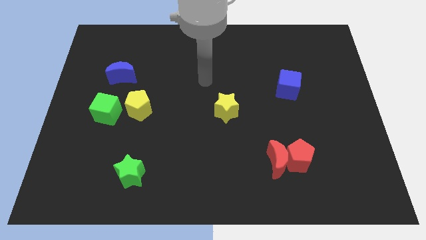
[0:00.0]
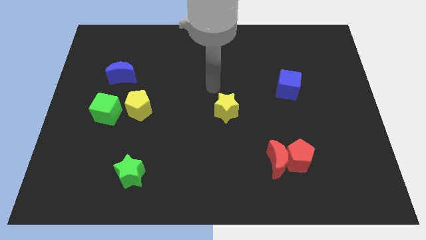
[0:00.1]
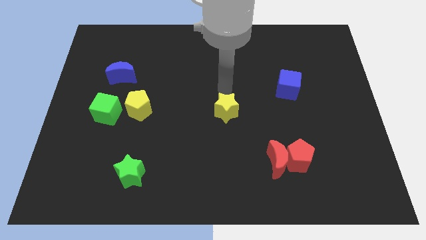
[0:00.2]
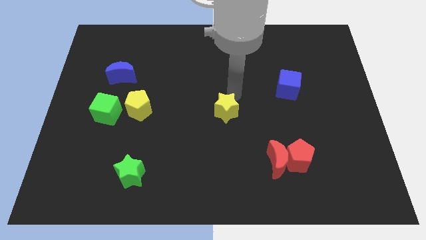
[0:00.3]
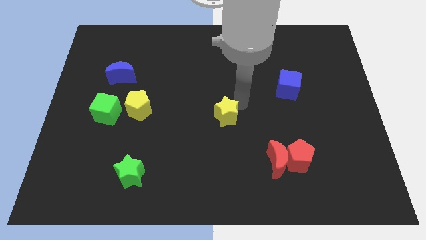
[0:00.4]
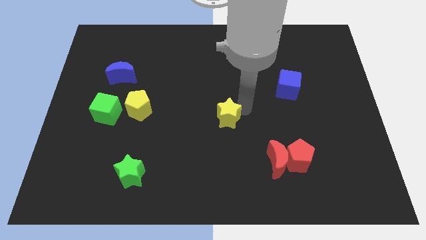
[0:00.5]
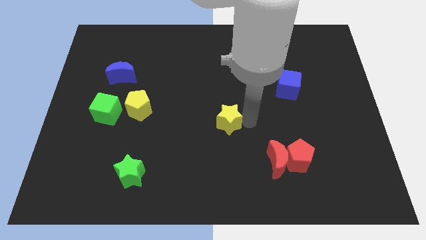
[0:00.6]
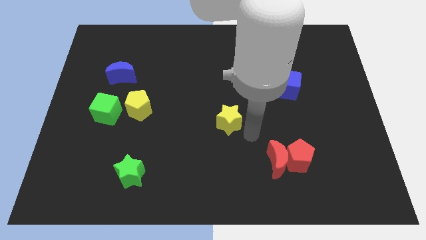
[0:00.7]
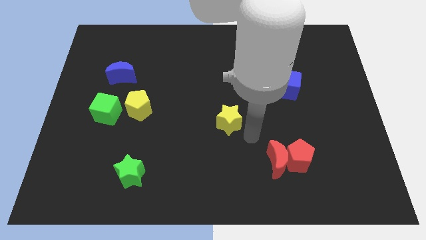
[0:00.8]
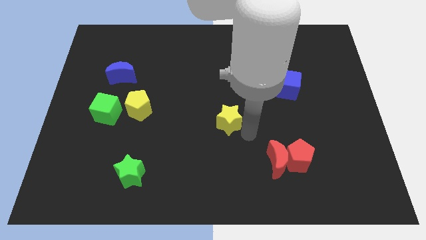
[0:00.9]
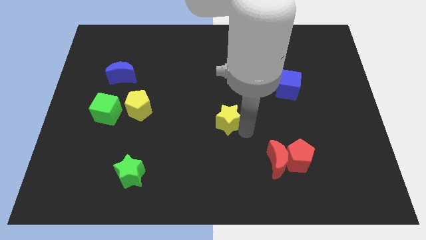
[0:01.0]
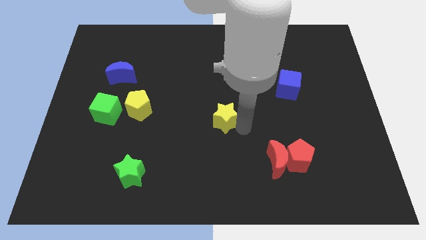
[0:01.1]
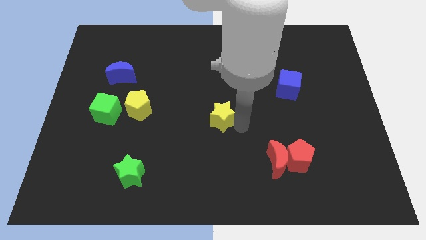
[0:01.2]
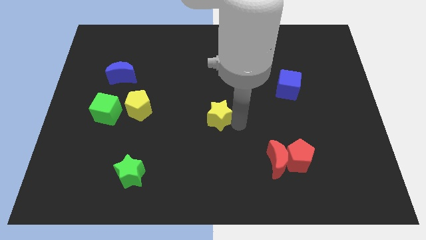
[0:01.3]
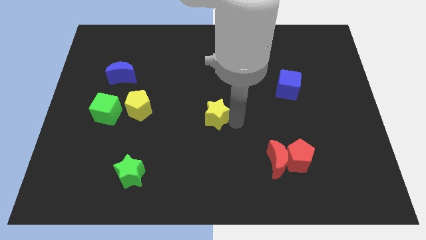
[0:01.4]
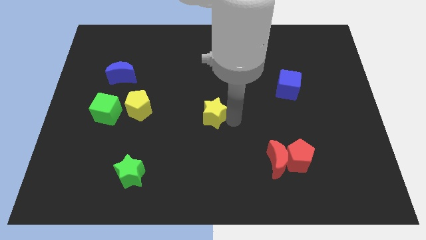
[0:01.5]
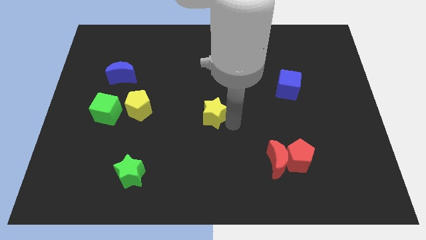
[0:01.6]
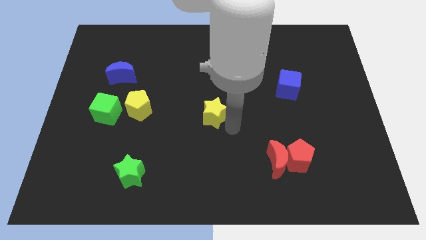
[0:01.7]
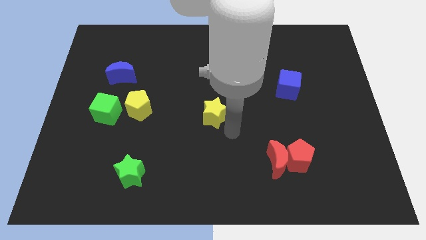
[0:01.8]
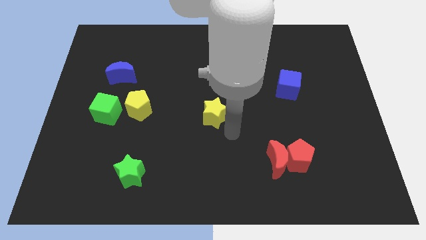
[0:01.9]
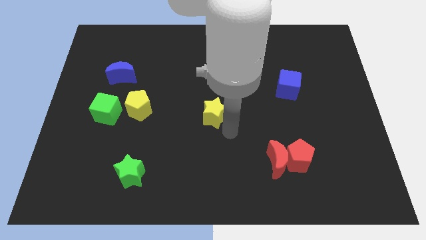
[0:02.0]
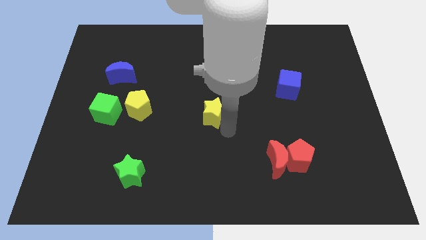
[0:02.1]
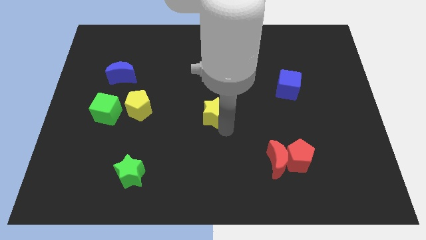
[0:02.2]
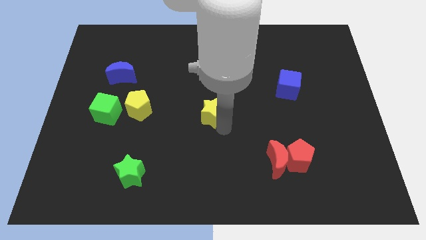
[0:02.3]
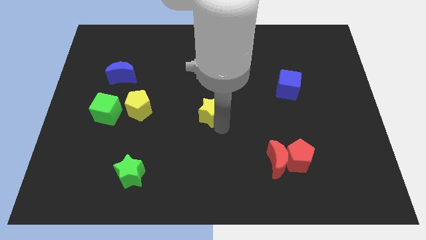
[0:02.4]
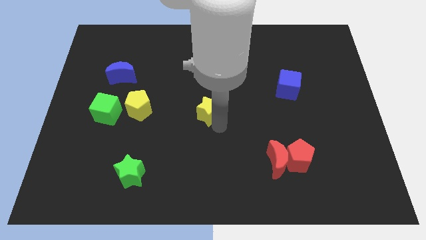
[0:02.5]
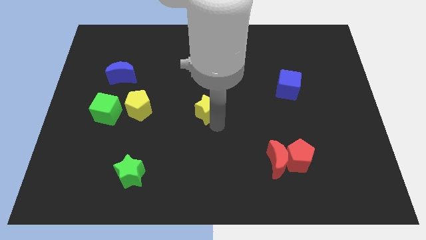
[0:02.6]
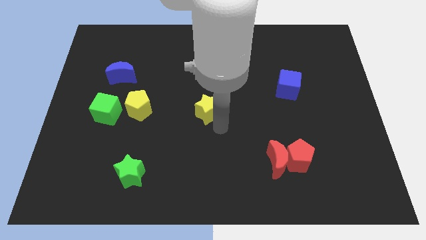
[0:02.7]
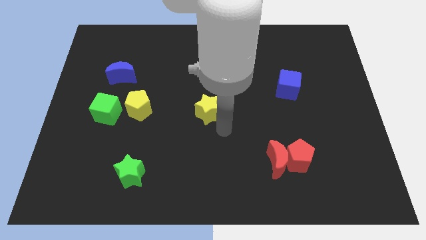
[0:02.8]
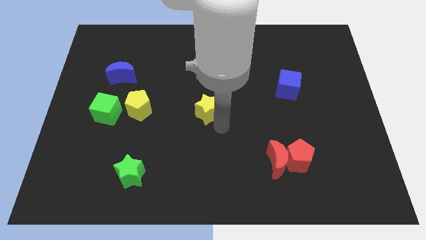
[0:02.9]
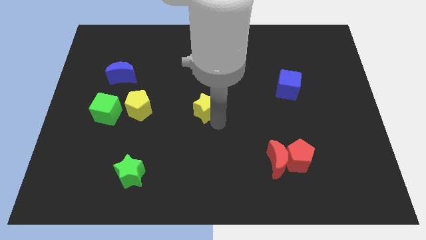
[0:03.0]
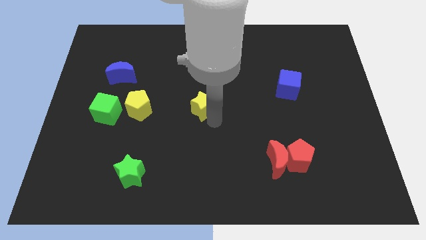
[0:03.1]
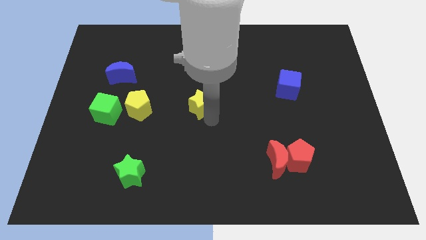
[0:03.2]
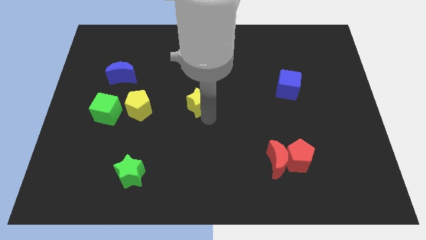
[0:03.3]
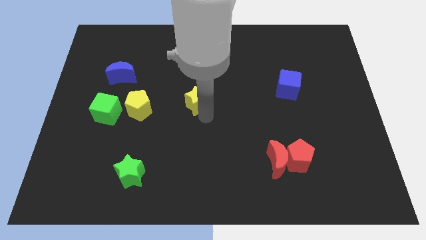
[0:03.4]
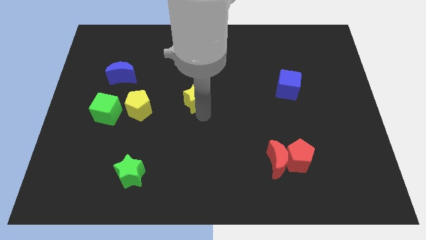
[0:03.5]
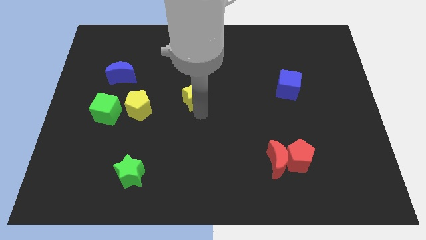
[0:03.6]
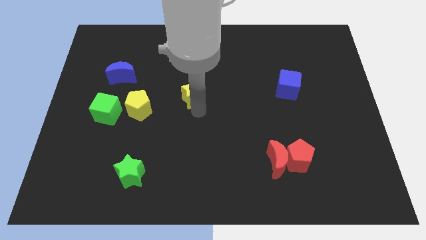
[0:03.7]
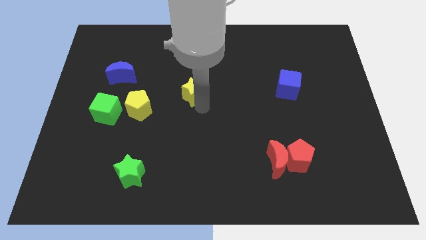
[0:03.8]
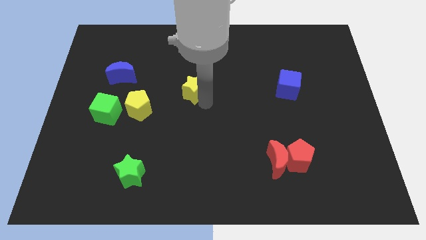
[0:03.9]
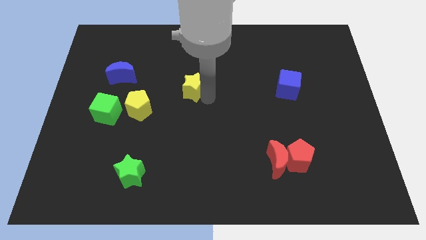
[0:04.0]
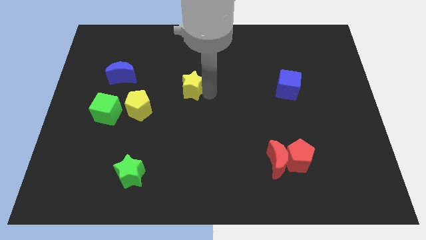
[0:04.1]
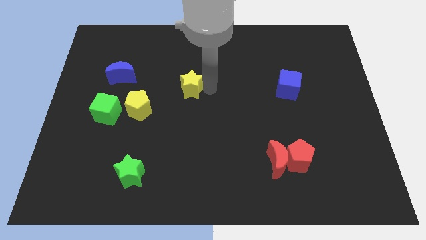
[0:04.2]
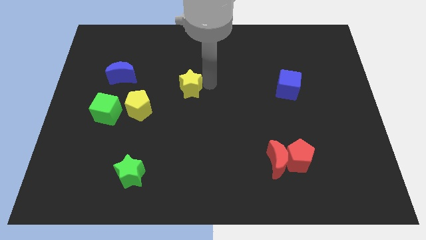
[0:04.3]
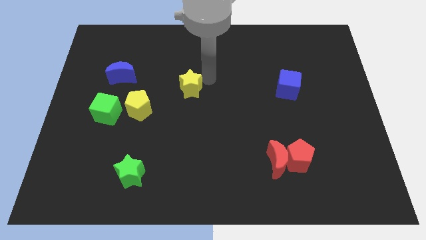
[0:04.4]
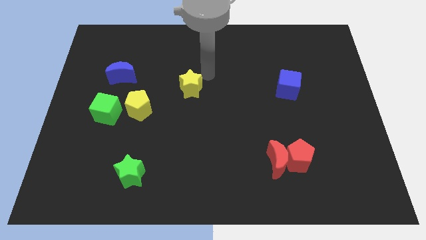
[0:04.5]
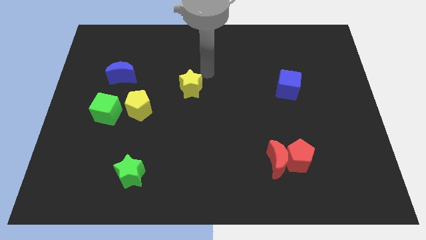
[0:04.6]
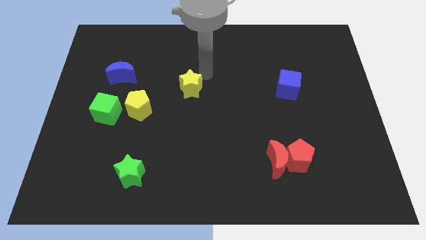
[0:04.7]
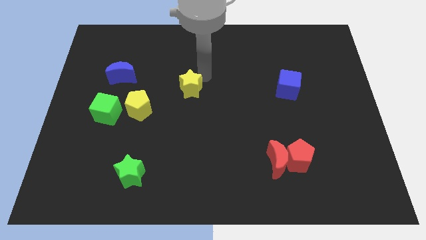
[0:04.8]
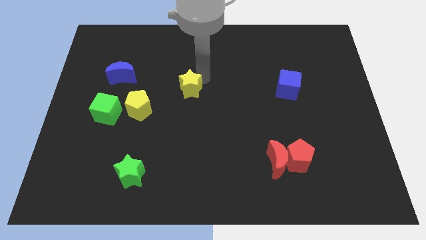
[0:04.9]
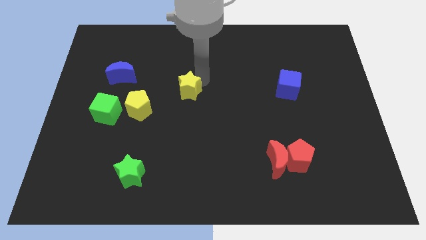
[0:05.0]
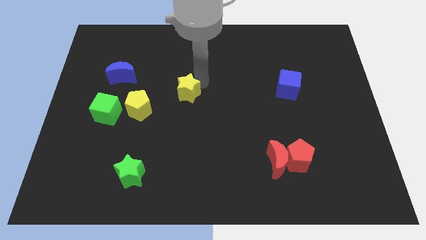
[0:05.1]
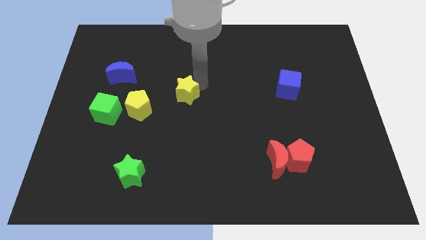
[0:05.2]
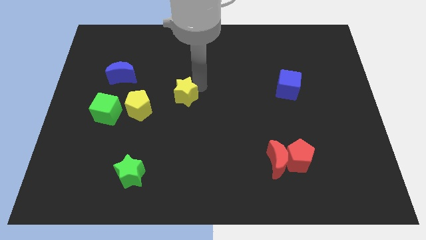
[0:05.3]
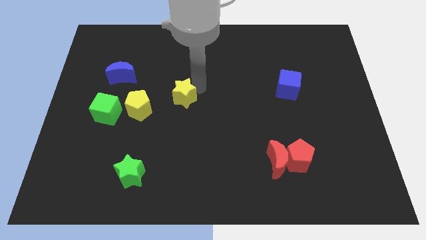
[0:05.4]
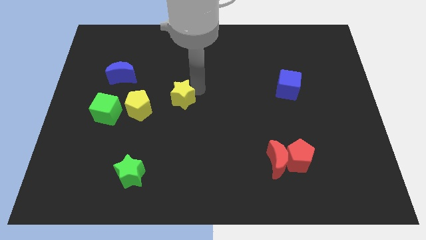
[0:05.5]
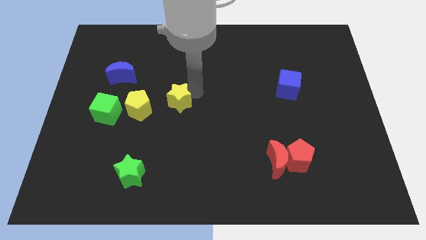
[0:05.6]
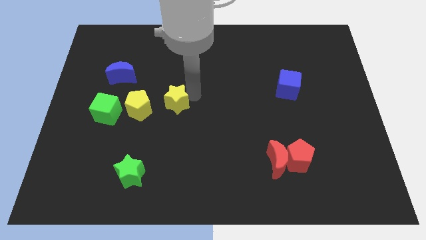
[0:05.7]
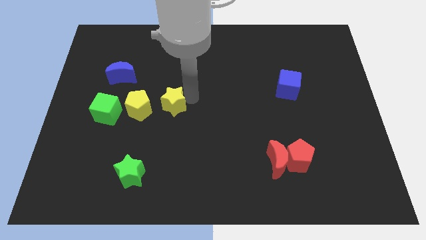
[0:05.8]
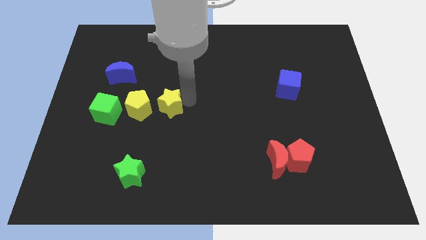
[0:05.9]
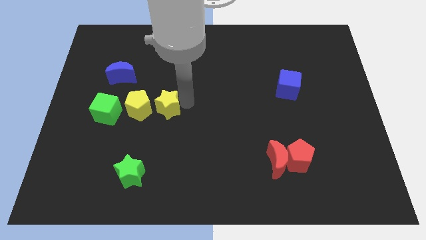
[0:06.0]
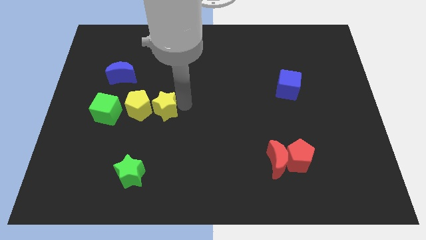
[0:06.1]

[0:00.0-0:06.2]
slide the yellow star close to the yellow pentagon

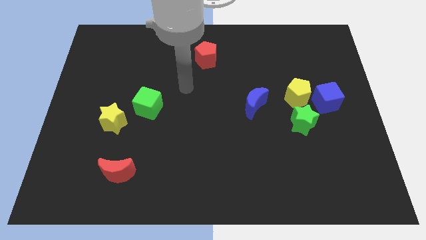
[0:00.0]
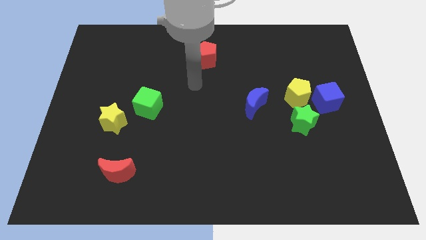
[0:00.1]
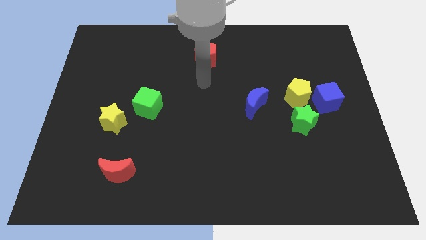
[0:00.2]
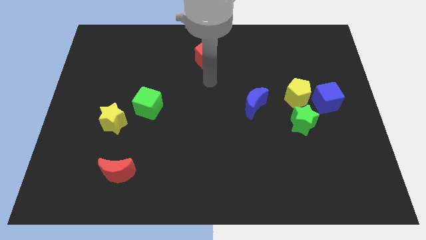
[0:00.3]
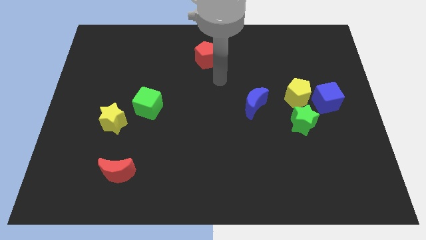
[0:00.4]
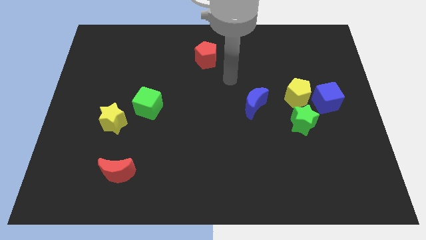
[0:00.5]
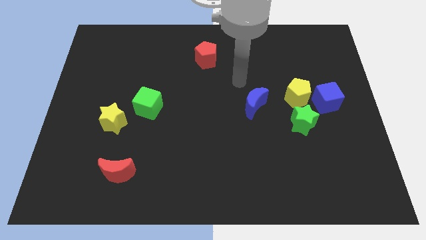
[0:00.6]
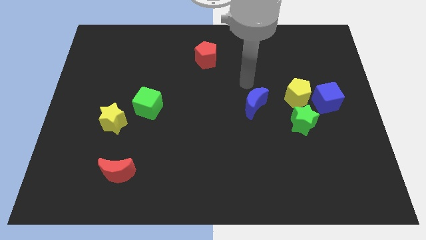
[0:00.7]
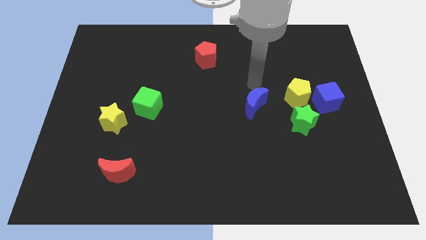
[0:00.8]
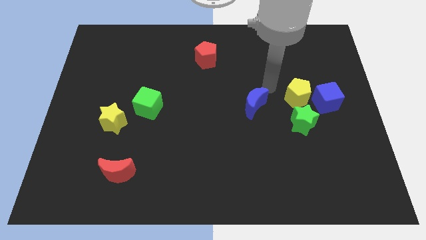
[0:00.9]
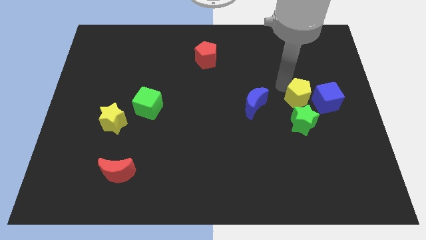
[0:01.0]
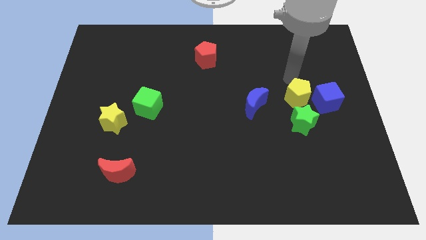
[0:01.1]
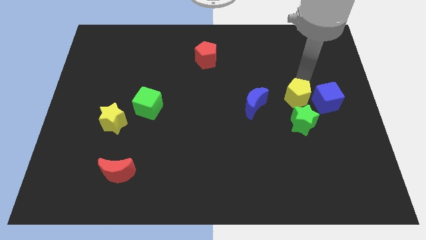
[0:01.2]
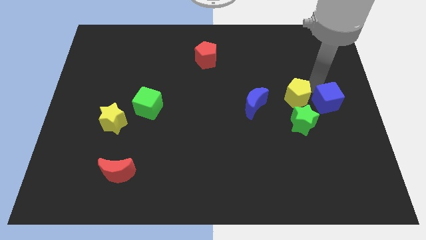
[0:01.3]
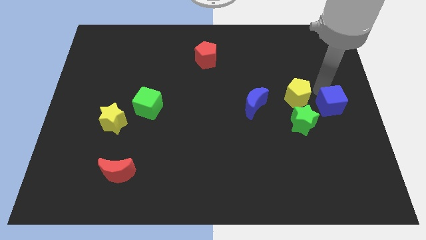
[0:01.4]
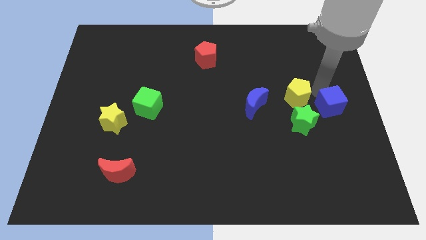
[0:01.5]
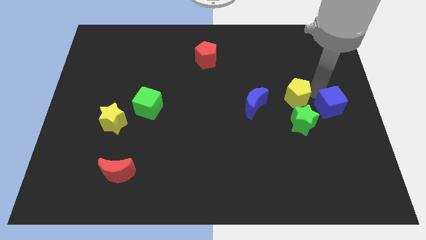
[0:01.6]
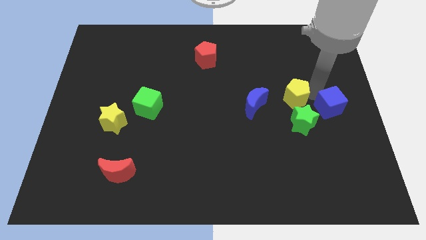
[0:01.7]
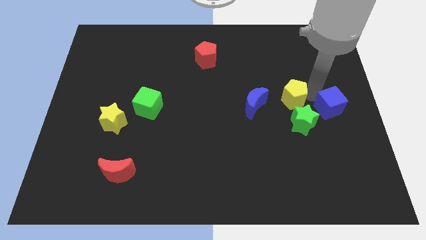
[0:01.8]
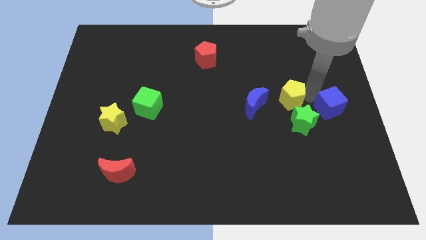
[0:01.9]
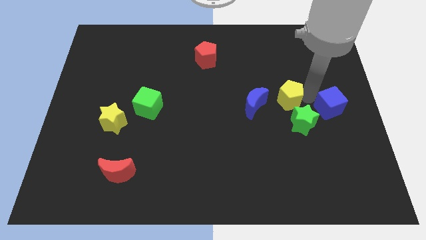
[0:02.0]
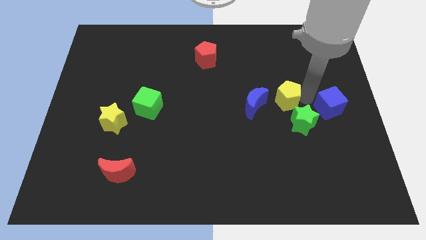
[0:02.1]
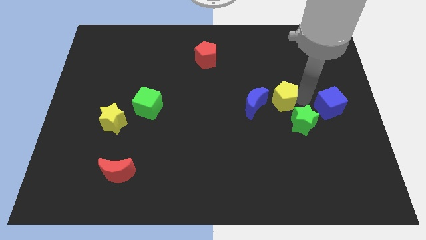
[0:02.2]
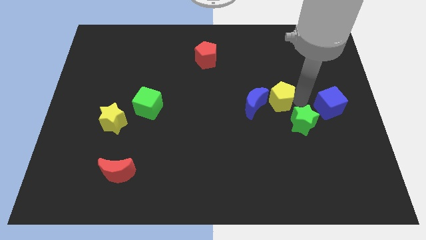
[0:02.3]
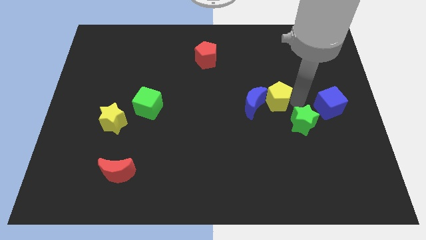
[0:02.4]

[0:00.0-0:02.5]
move the yellow pentagon towards the blue moon
